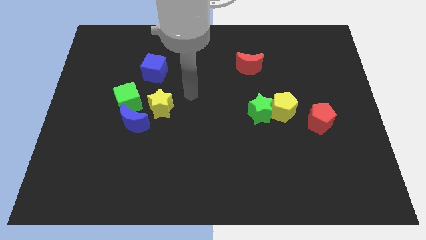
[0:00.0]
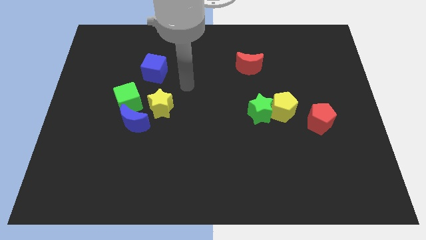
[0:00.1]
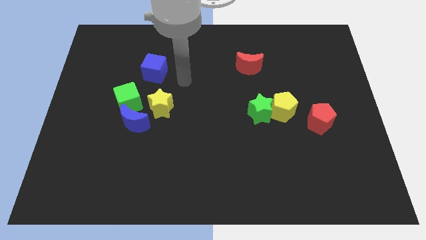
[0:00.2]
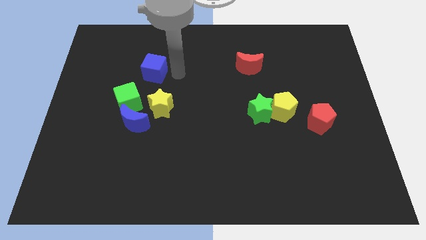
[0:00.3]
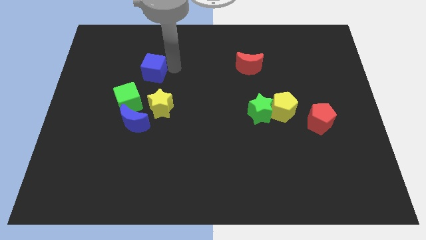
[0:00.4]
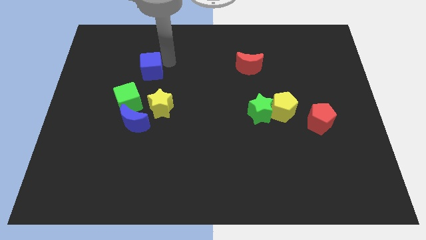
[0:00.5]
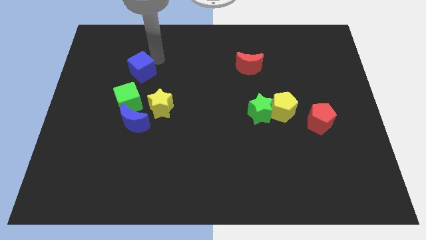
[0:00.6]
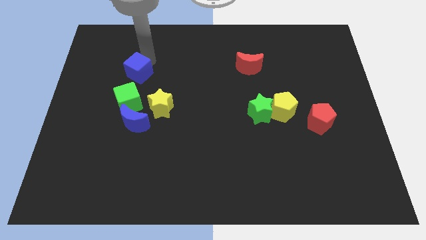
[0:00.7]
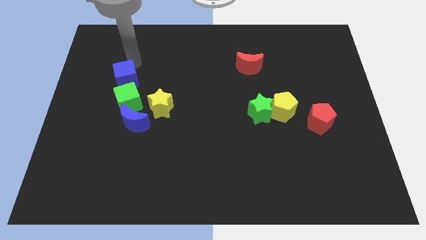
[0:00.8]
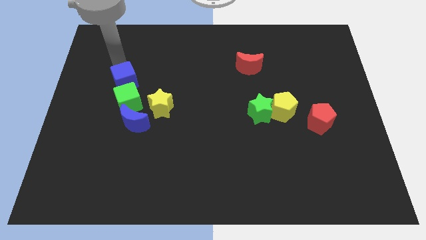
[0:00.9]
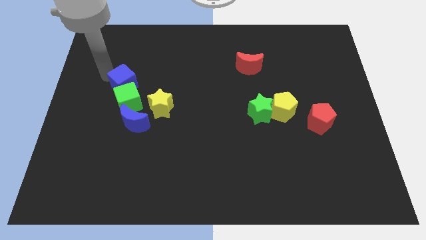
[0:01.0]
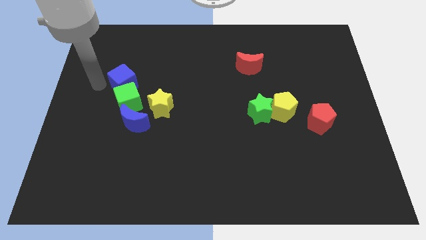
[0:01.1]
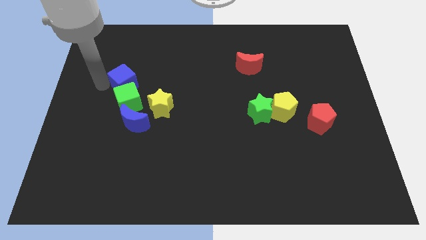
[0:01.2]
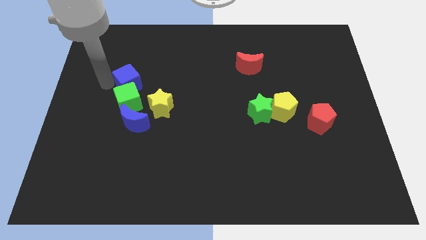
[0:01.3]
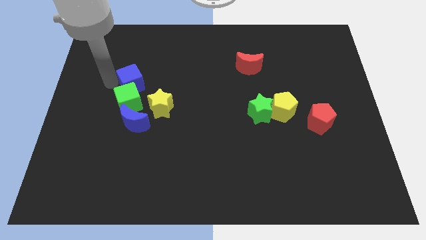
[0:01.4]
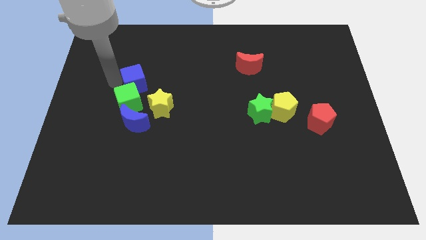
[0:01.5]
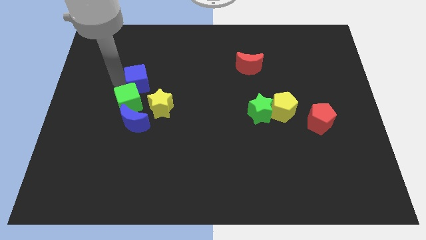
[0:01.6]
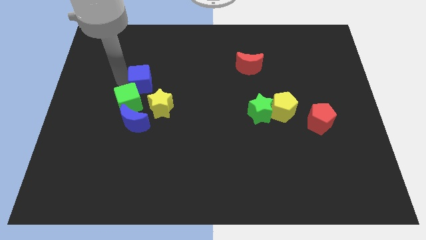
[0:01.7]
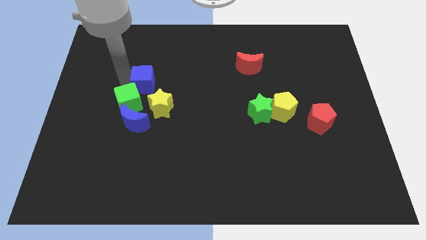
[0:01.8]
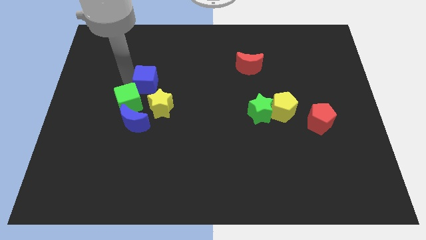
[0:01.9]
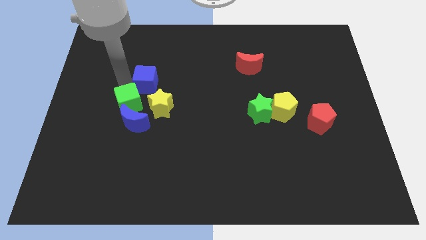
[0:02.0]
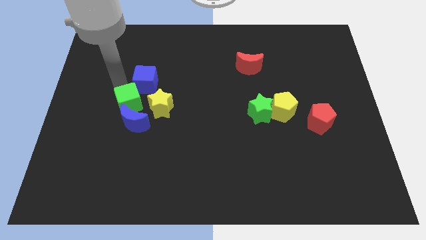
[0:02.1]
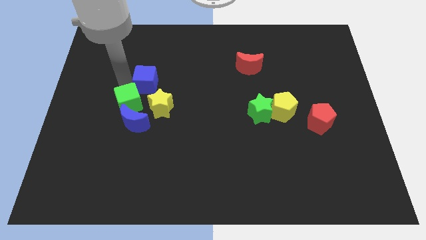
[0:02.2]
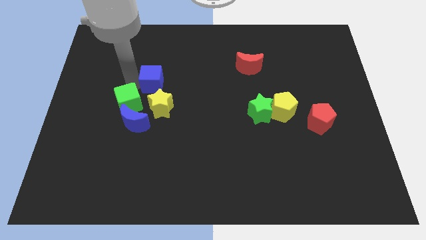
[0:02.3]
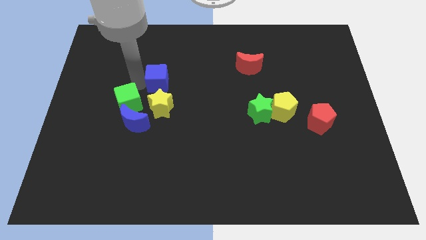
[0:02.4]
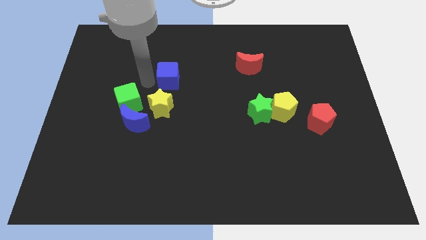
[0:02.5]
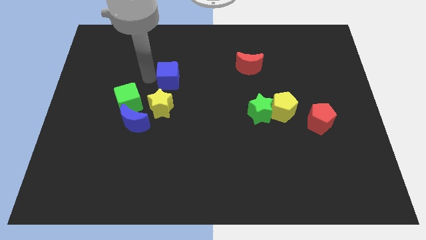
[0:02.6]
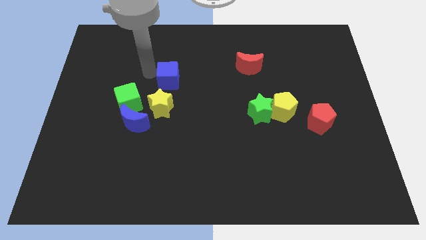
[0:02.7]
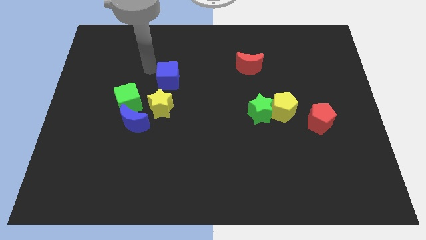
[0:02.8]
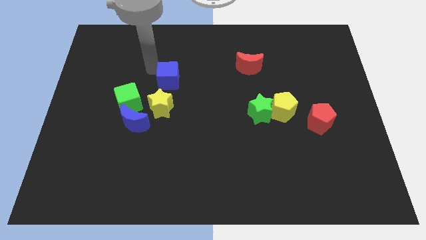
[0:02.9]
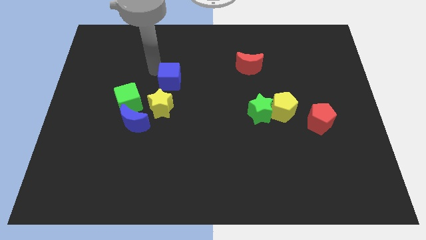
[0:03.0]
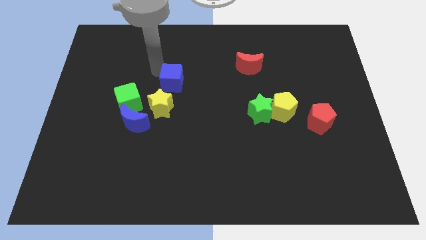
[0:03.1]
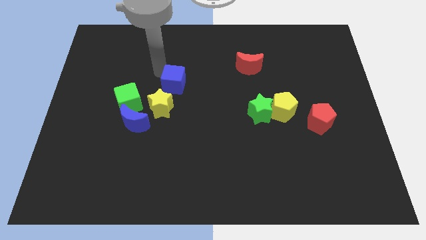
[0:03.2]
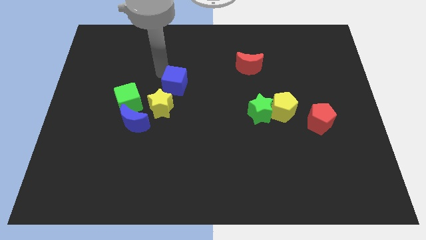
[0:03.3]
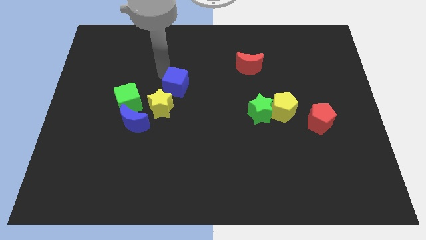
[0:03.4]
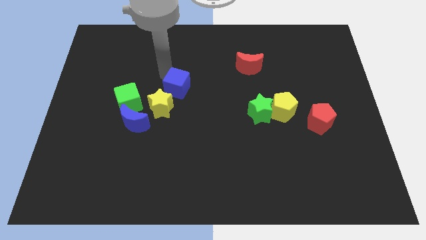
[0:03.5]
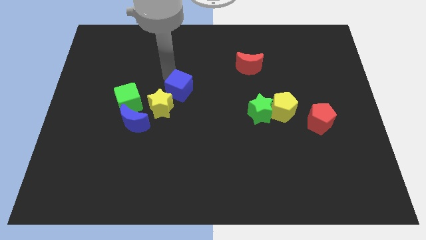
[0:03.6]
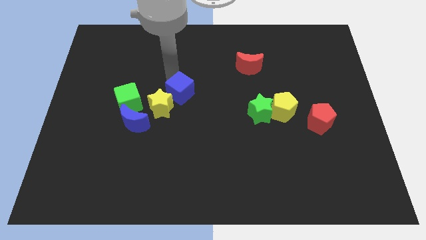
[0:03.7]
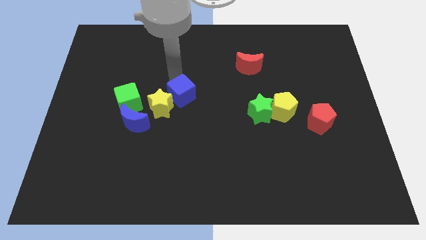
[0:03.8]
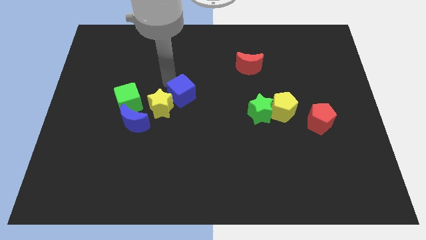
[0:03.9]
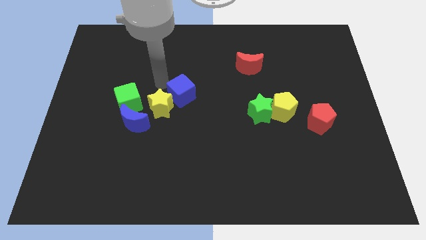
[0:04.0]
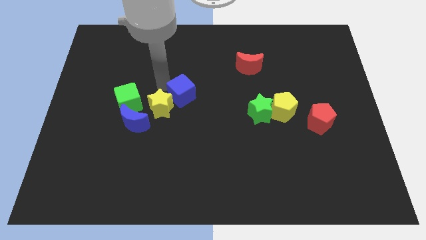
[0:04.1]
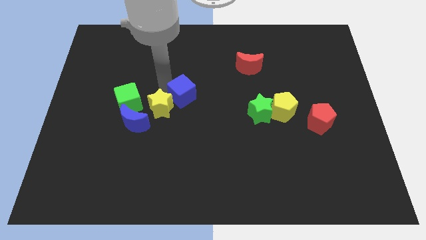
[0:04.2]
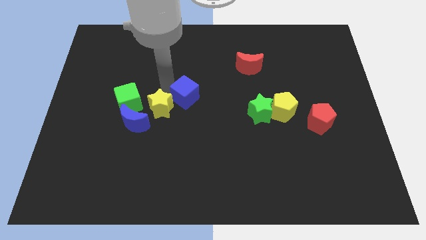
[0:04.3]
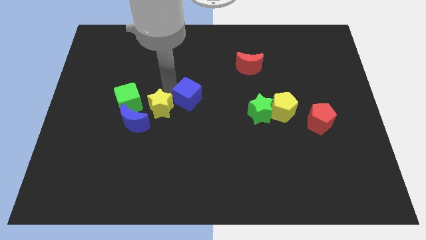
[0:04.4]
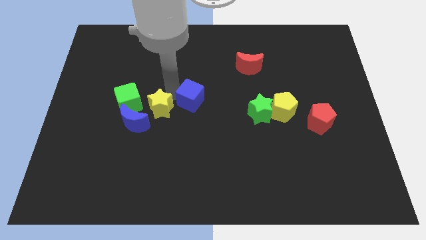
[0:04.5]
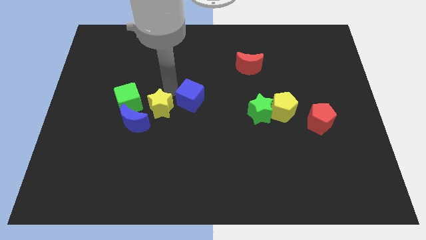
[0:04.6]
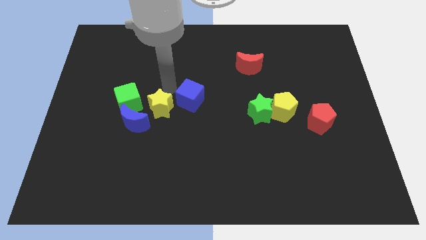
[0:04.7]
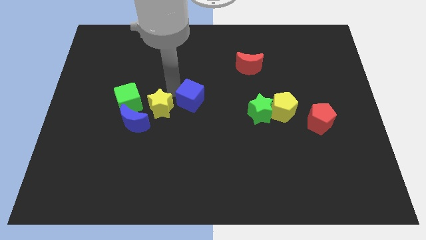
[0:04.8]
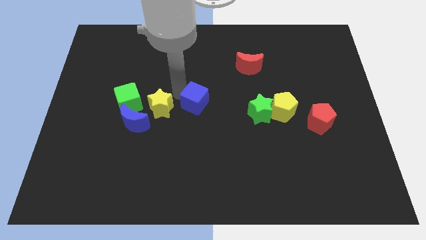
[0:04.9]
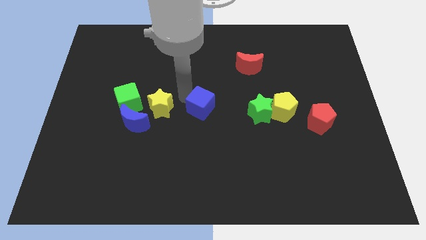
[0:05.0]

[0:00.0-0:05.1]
put the blue cube left of the green star

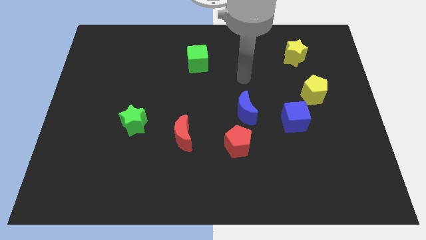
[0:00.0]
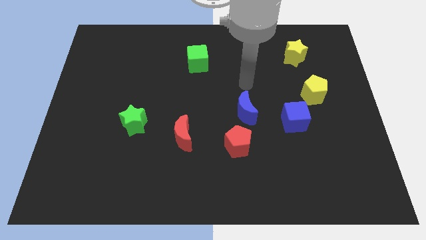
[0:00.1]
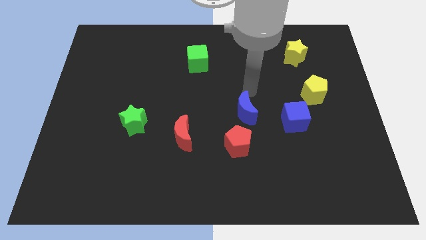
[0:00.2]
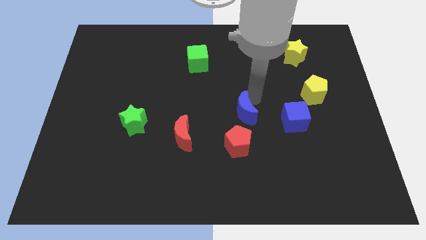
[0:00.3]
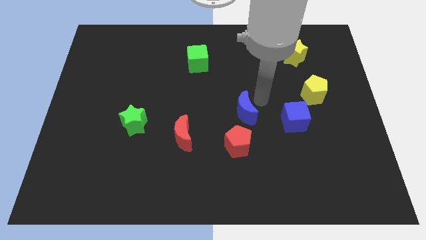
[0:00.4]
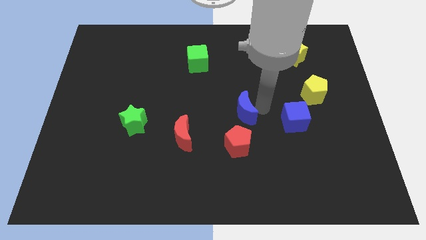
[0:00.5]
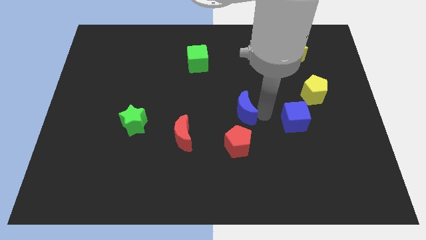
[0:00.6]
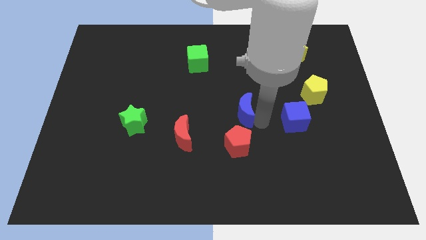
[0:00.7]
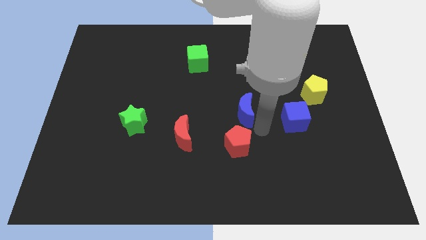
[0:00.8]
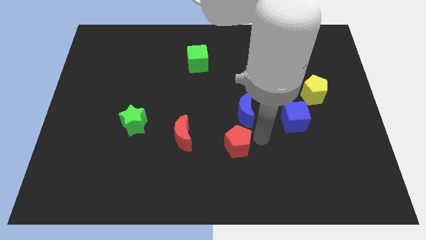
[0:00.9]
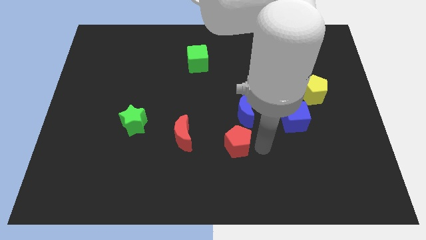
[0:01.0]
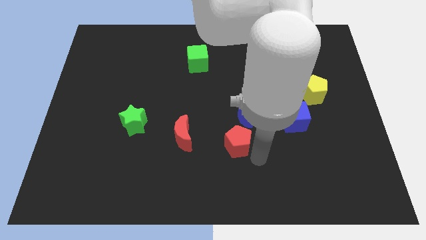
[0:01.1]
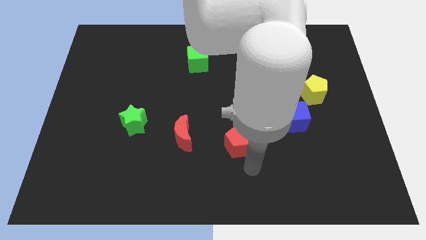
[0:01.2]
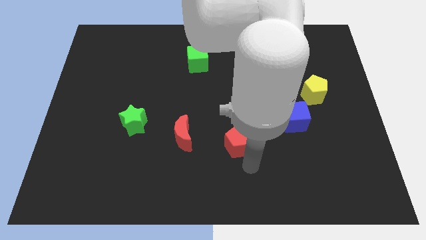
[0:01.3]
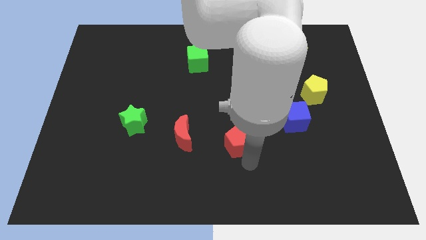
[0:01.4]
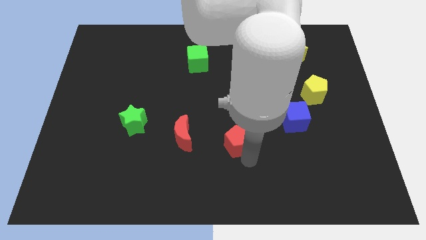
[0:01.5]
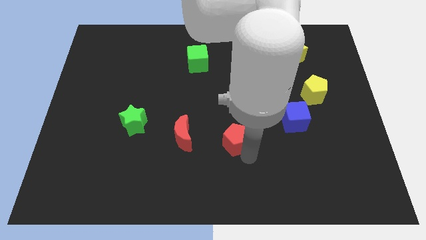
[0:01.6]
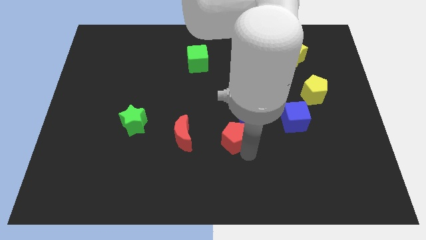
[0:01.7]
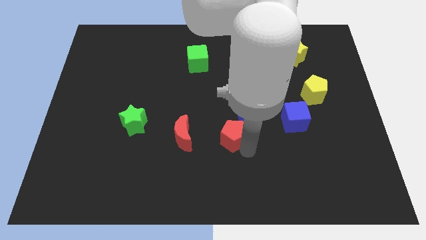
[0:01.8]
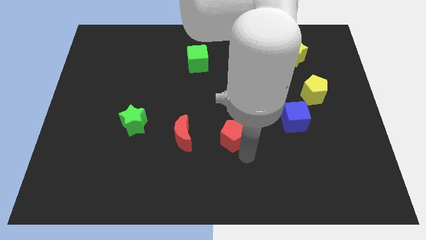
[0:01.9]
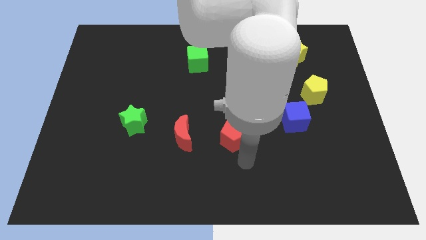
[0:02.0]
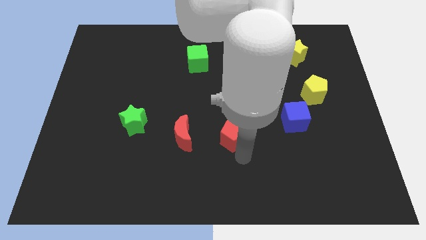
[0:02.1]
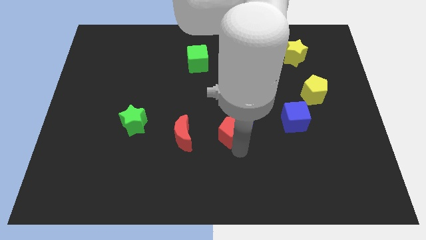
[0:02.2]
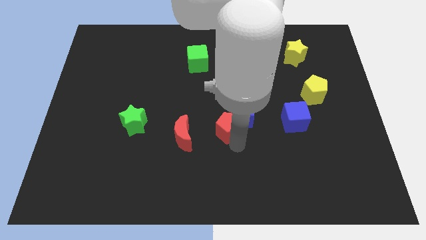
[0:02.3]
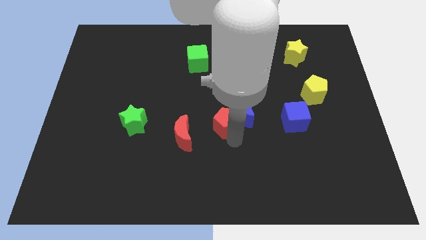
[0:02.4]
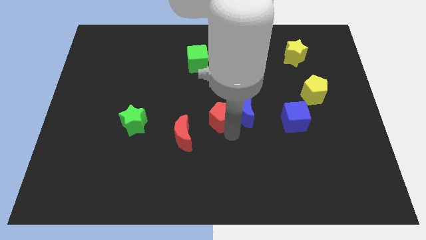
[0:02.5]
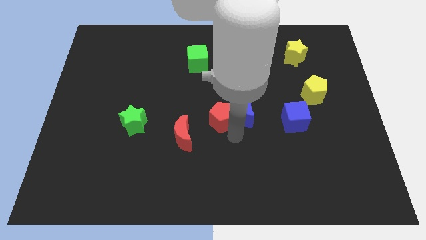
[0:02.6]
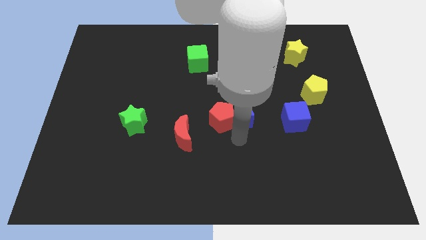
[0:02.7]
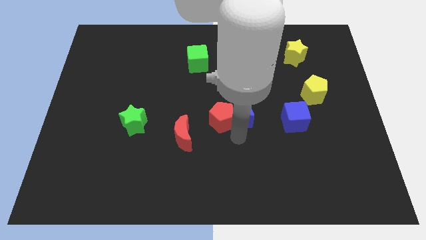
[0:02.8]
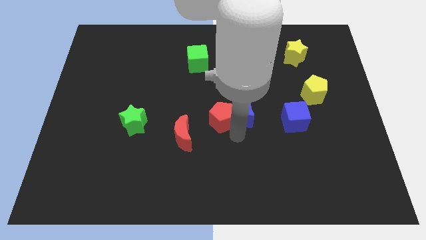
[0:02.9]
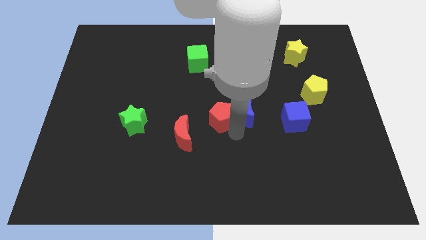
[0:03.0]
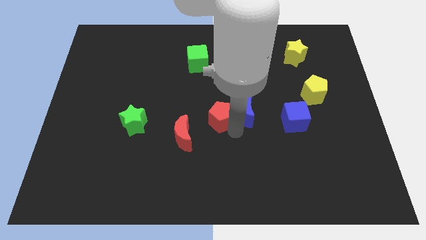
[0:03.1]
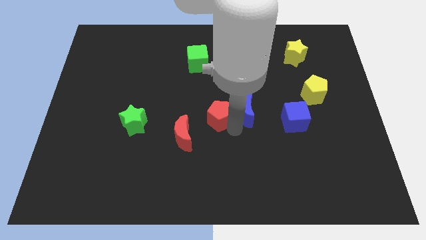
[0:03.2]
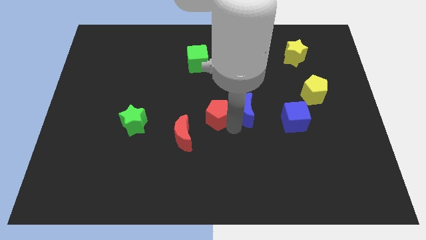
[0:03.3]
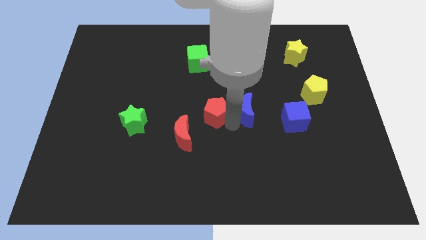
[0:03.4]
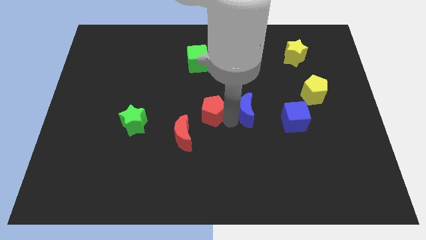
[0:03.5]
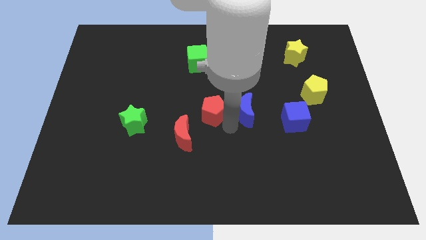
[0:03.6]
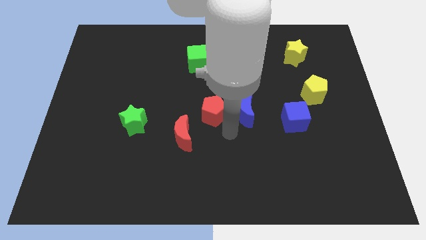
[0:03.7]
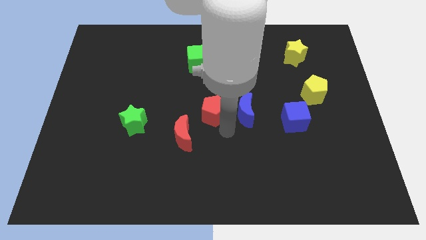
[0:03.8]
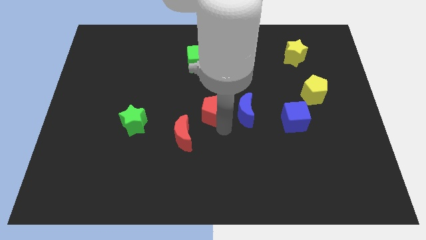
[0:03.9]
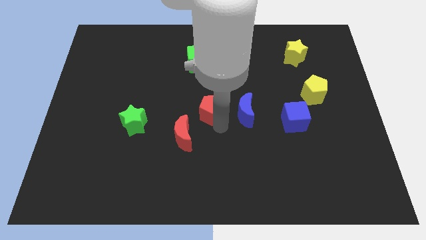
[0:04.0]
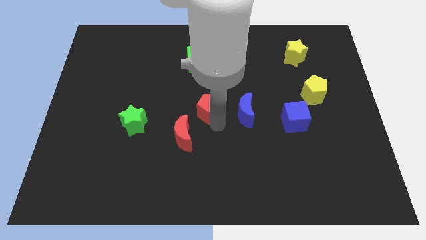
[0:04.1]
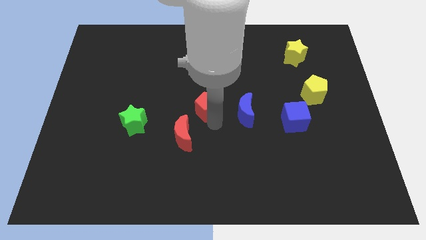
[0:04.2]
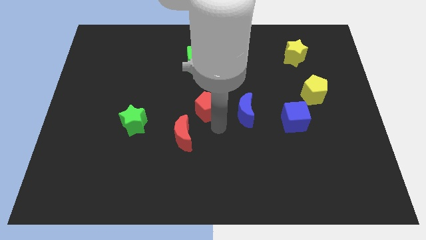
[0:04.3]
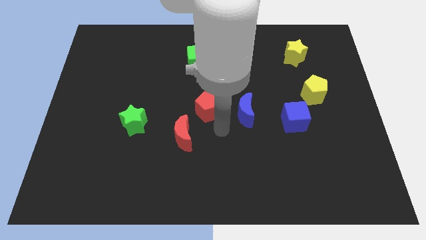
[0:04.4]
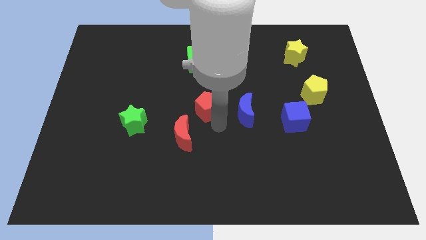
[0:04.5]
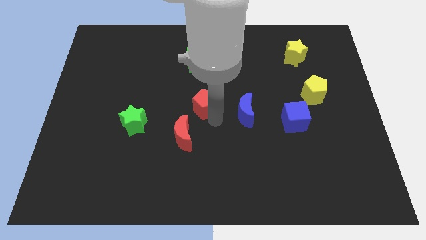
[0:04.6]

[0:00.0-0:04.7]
push the red pentagon to the bottom side of the green cube
